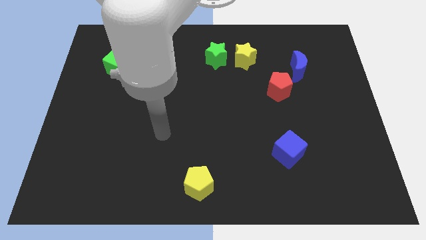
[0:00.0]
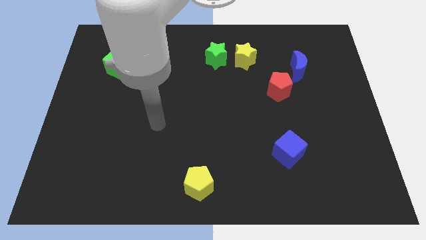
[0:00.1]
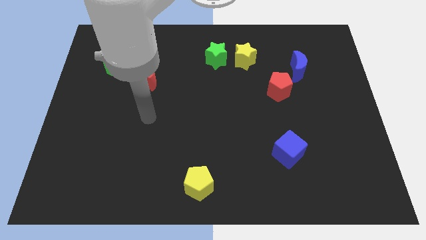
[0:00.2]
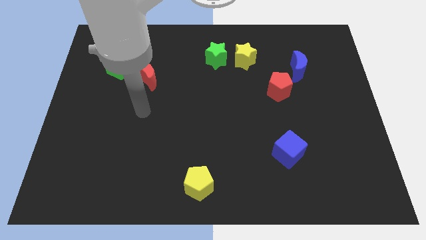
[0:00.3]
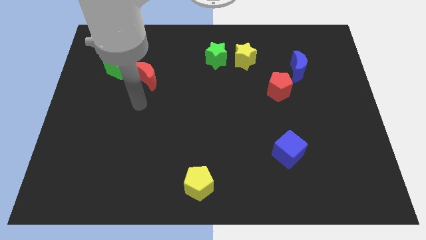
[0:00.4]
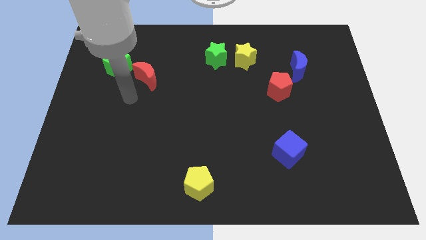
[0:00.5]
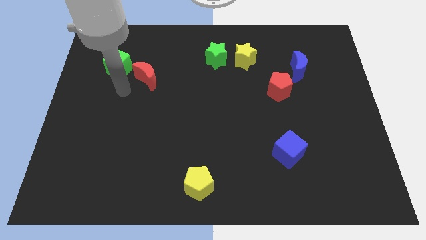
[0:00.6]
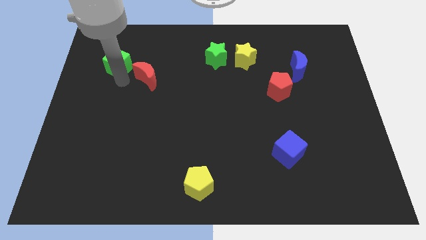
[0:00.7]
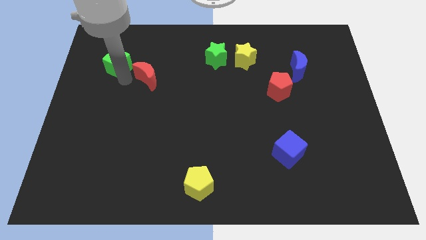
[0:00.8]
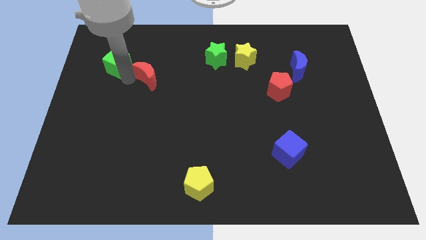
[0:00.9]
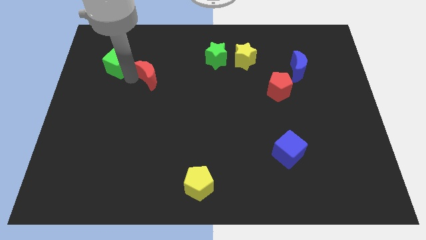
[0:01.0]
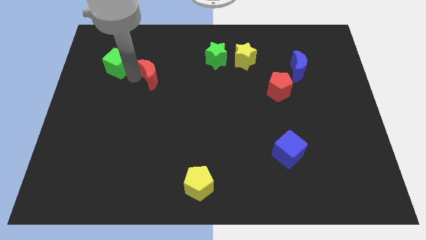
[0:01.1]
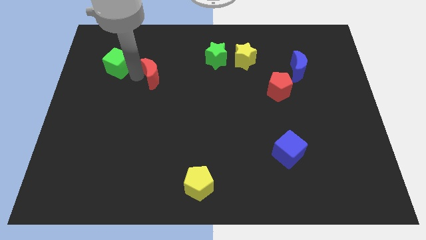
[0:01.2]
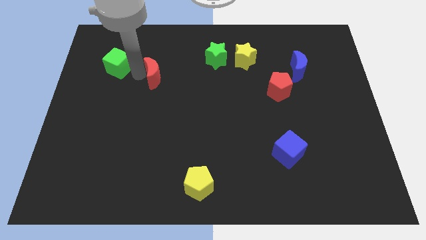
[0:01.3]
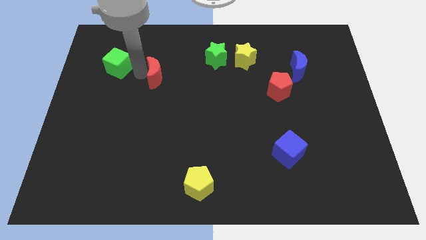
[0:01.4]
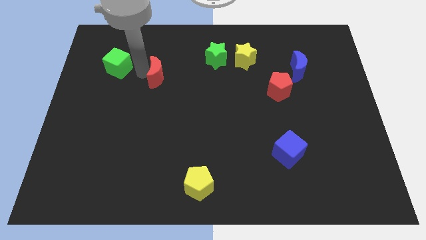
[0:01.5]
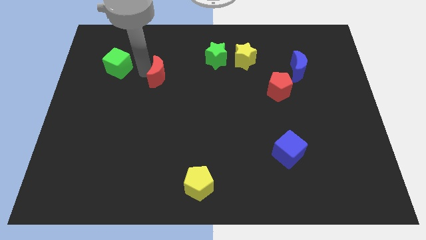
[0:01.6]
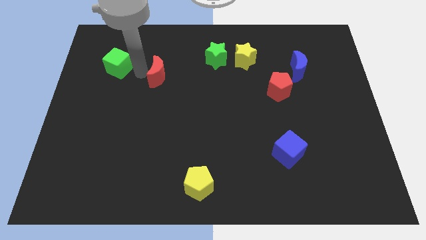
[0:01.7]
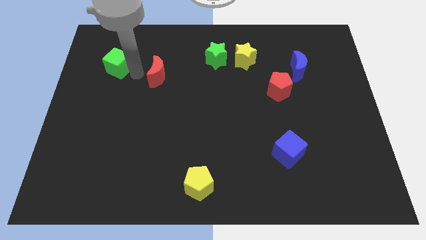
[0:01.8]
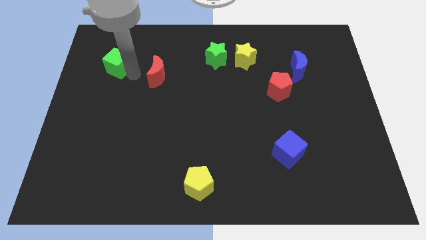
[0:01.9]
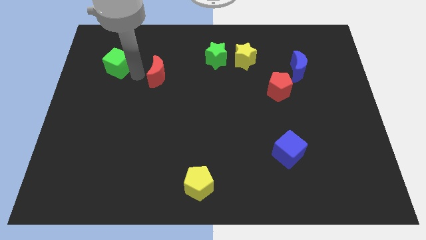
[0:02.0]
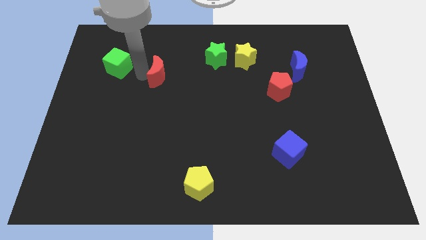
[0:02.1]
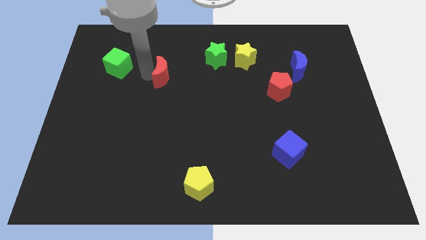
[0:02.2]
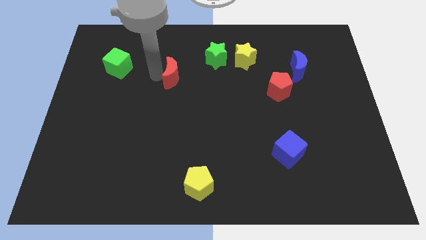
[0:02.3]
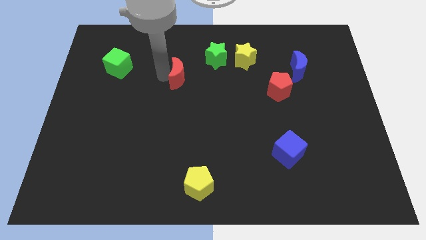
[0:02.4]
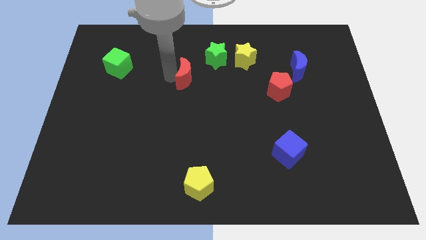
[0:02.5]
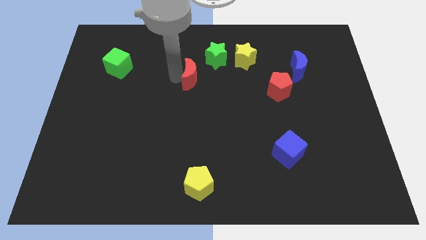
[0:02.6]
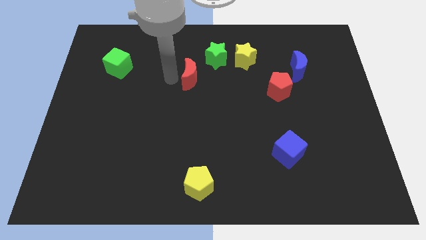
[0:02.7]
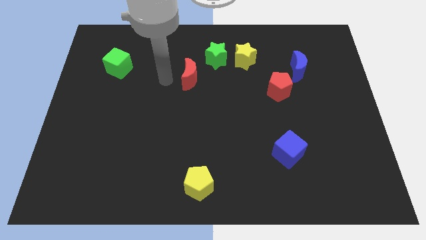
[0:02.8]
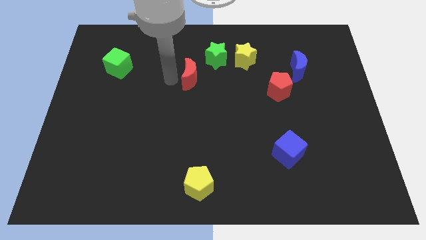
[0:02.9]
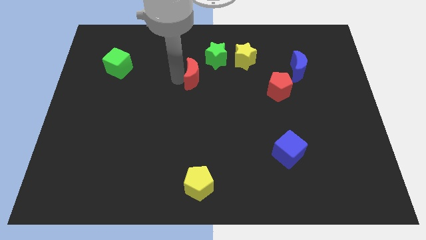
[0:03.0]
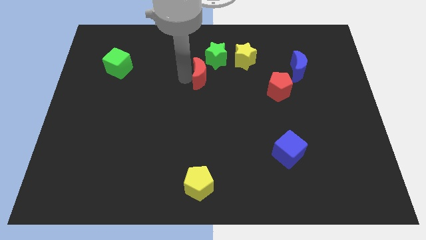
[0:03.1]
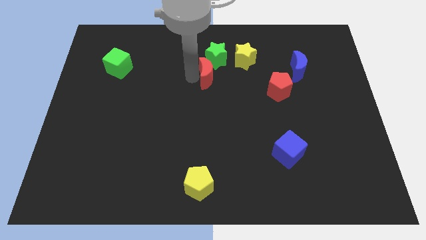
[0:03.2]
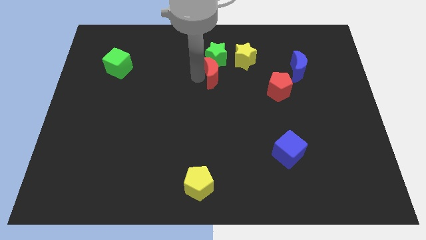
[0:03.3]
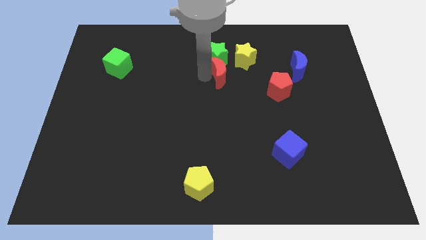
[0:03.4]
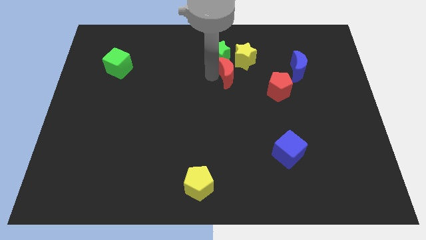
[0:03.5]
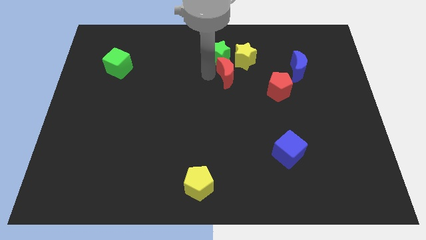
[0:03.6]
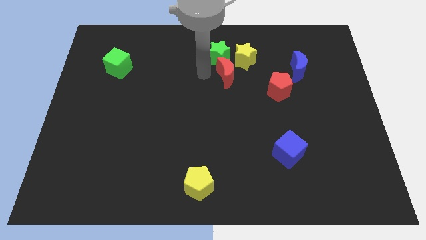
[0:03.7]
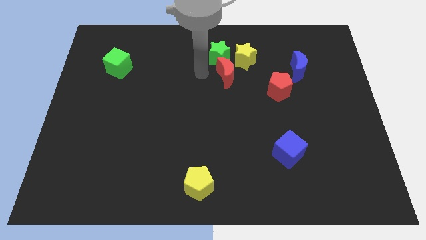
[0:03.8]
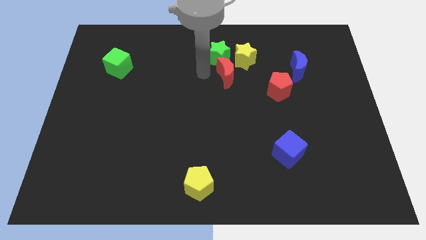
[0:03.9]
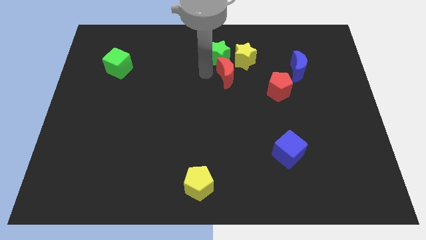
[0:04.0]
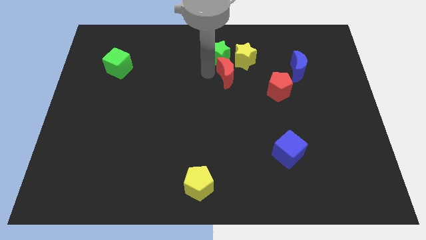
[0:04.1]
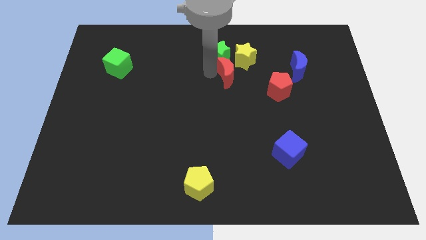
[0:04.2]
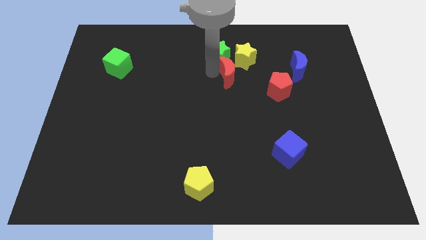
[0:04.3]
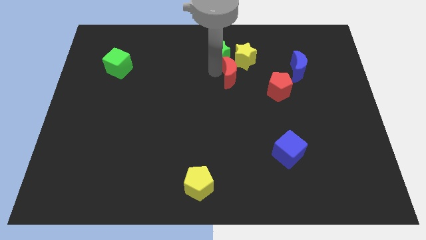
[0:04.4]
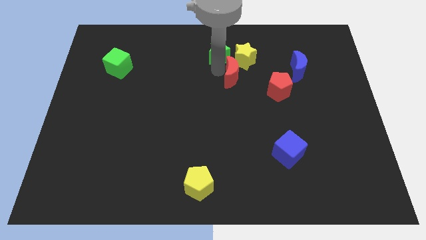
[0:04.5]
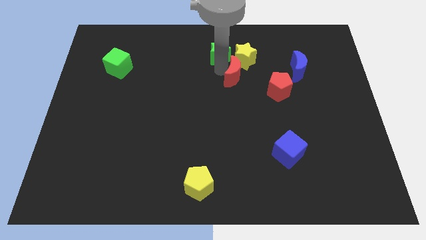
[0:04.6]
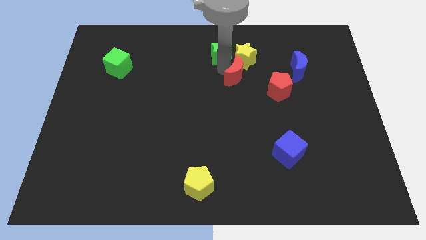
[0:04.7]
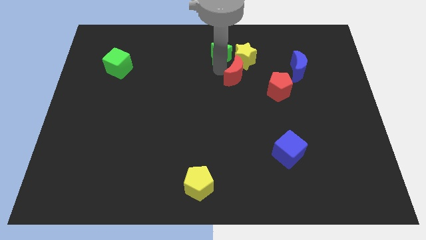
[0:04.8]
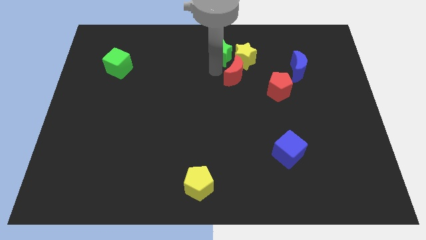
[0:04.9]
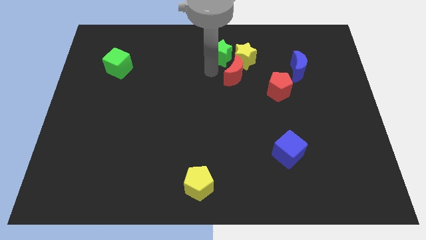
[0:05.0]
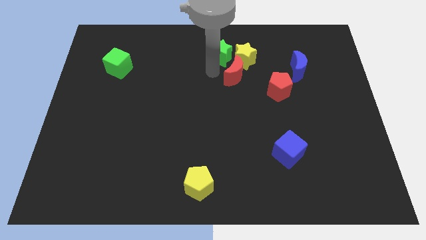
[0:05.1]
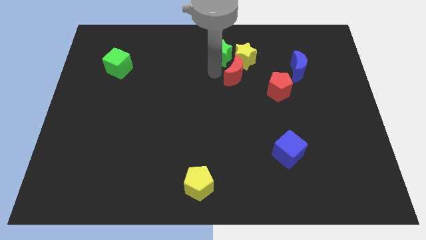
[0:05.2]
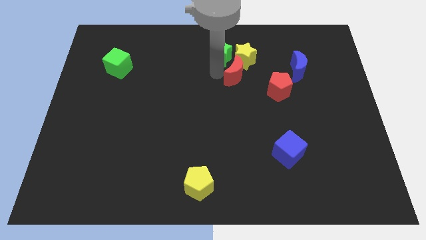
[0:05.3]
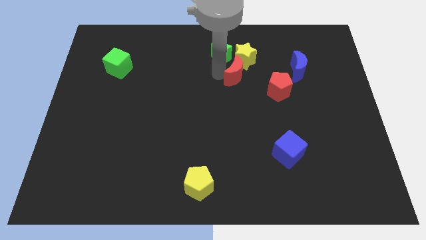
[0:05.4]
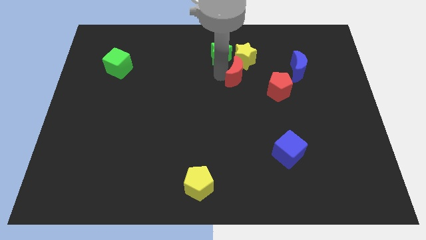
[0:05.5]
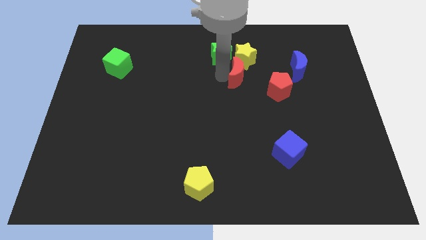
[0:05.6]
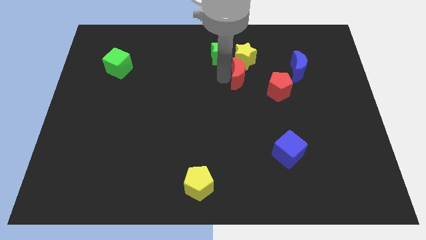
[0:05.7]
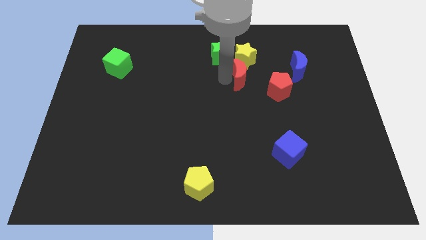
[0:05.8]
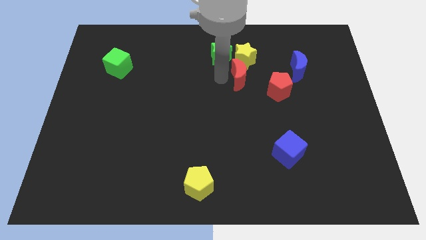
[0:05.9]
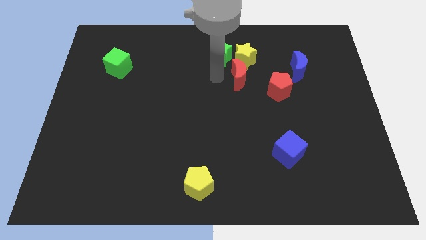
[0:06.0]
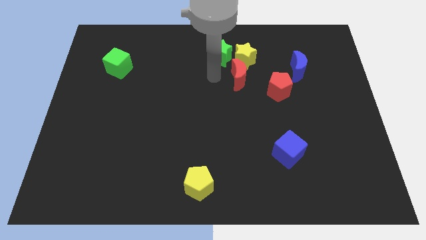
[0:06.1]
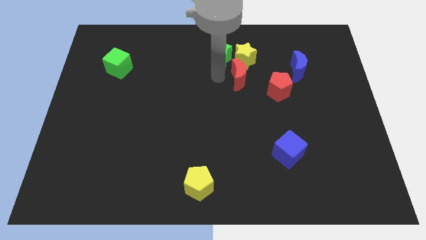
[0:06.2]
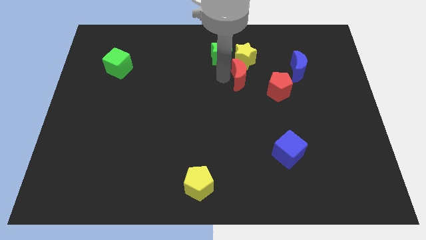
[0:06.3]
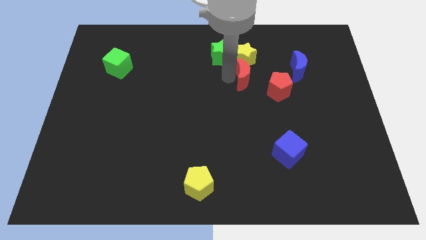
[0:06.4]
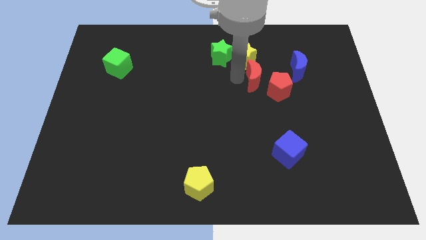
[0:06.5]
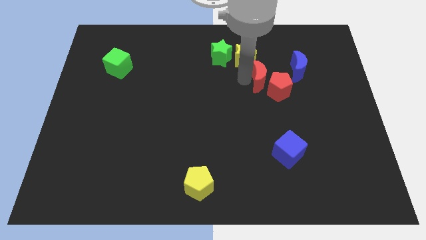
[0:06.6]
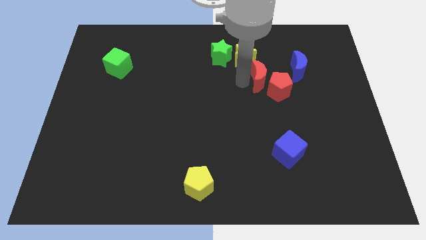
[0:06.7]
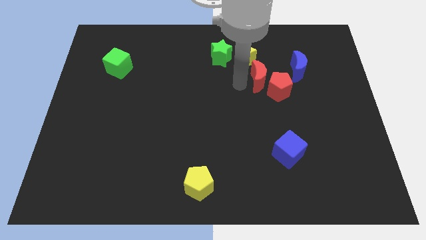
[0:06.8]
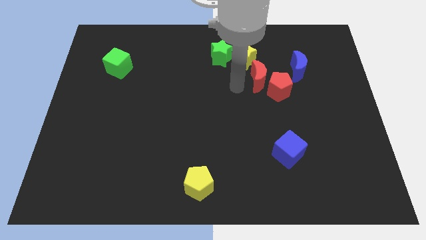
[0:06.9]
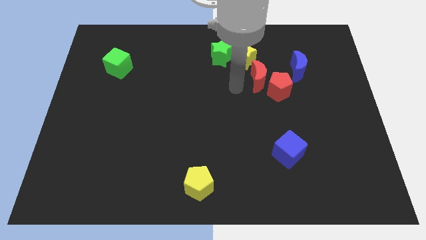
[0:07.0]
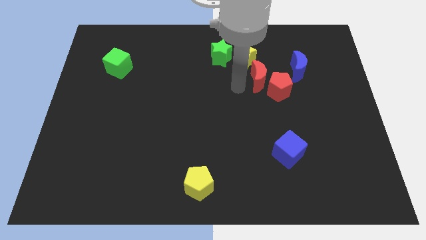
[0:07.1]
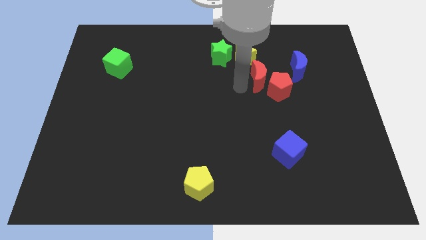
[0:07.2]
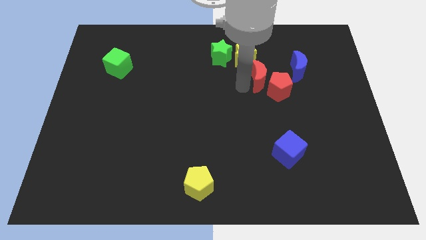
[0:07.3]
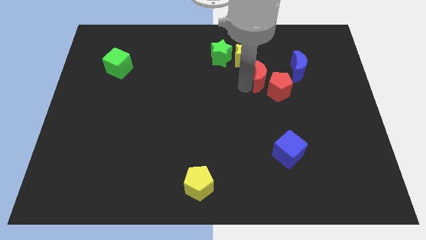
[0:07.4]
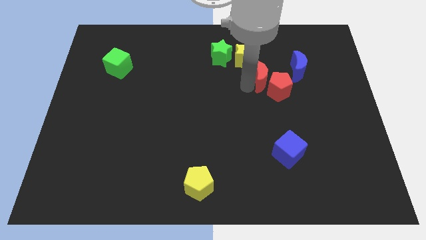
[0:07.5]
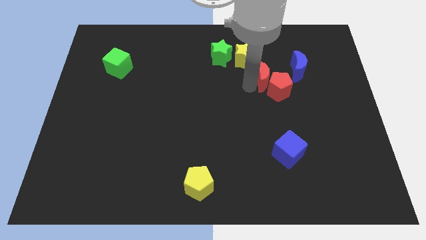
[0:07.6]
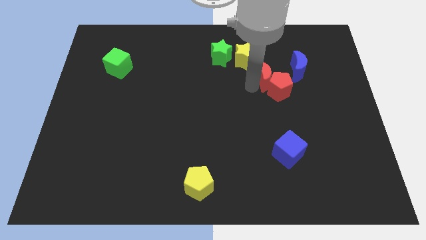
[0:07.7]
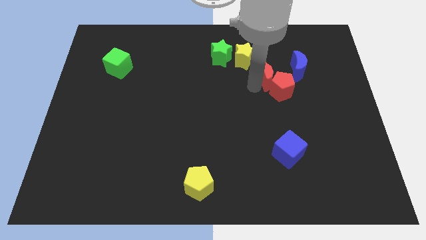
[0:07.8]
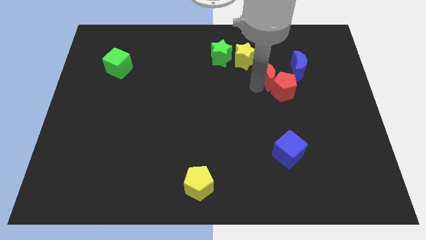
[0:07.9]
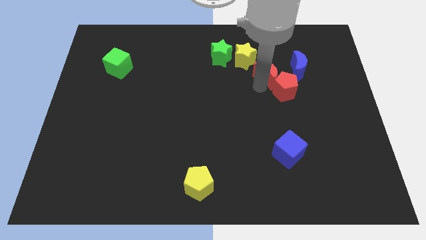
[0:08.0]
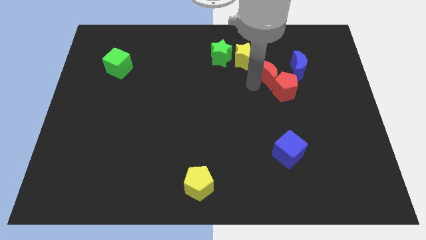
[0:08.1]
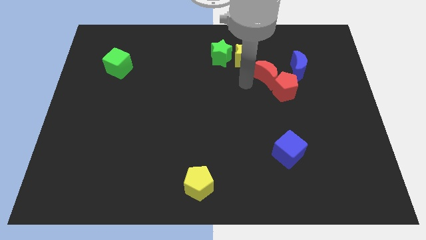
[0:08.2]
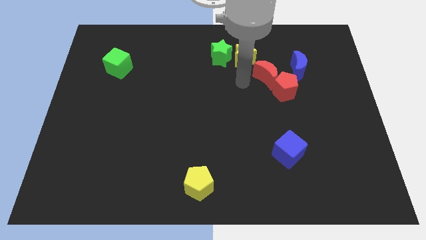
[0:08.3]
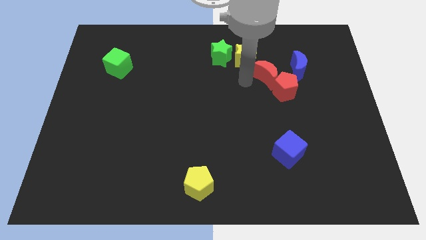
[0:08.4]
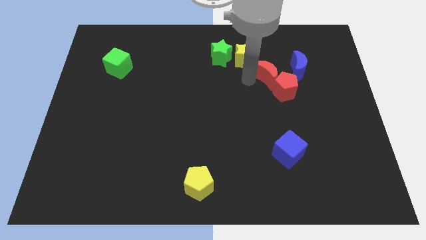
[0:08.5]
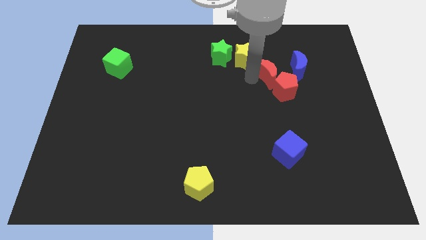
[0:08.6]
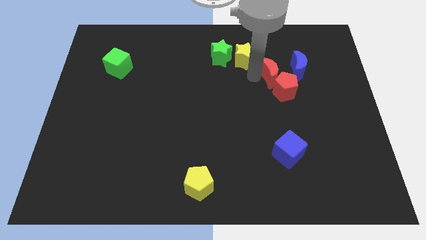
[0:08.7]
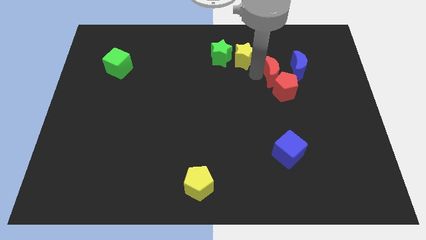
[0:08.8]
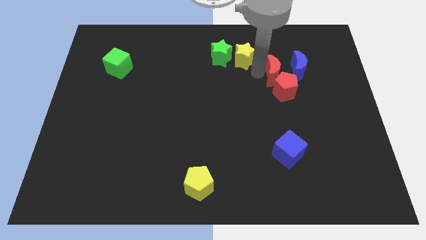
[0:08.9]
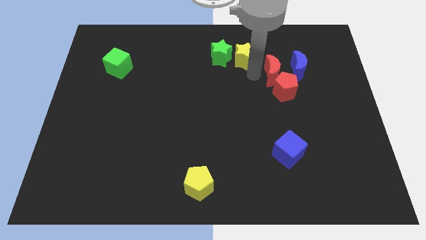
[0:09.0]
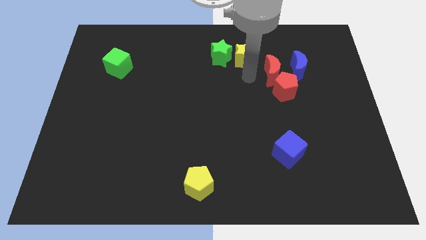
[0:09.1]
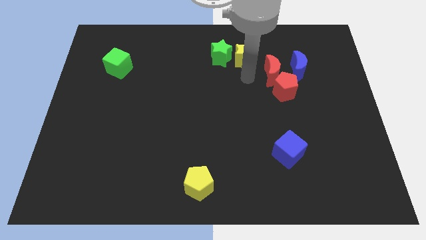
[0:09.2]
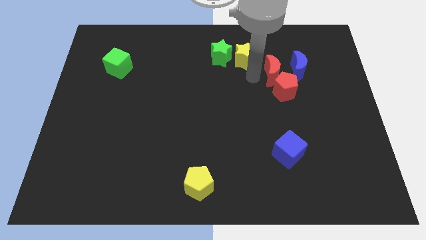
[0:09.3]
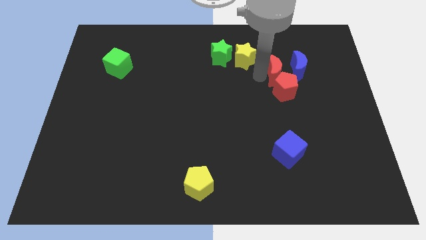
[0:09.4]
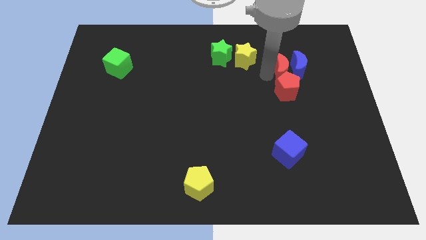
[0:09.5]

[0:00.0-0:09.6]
put the red moon to the blue moon
